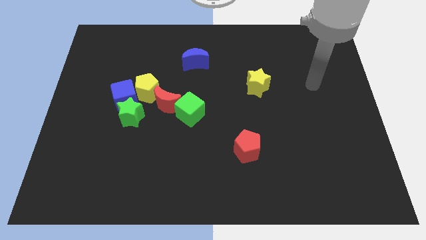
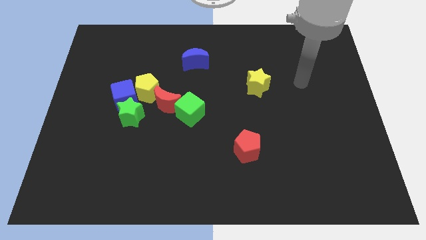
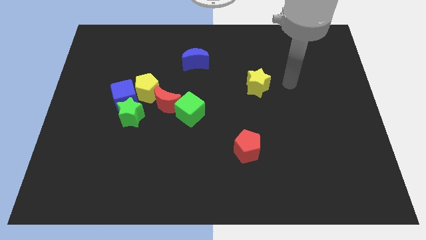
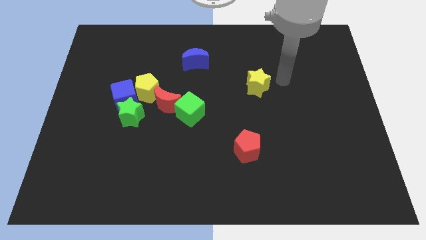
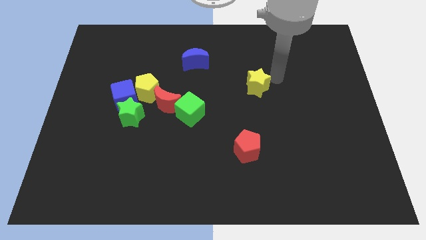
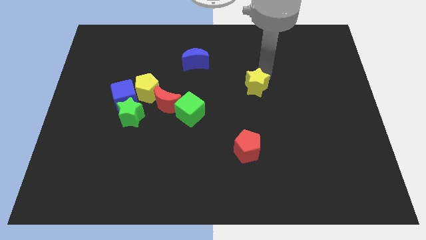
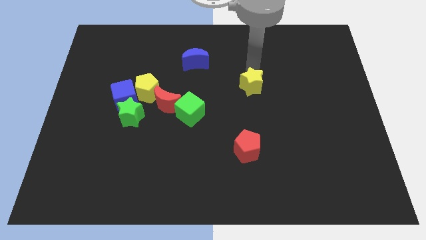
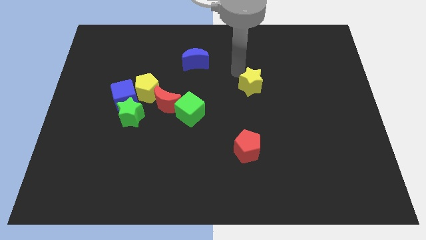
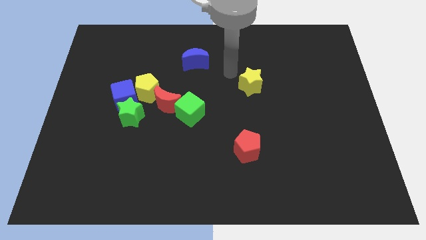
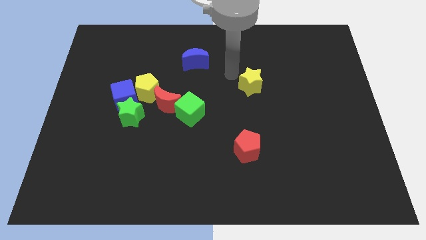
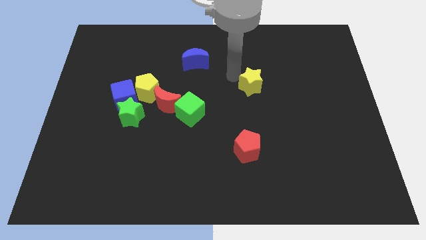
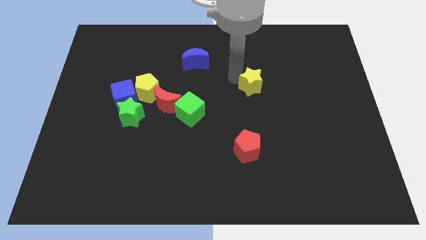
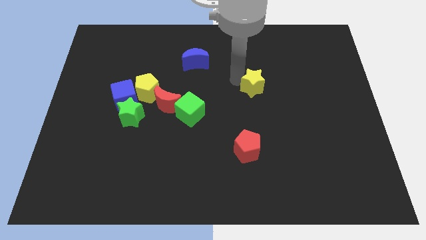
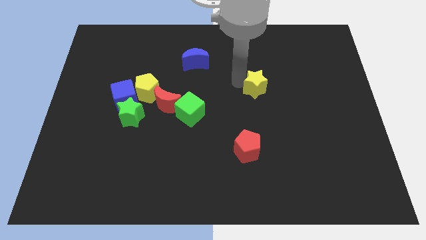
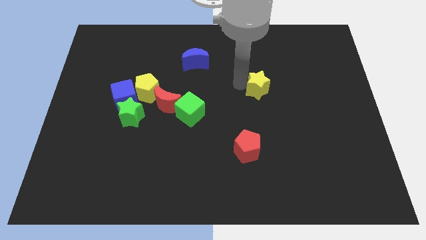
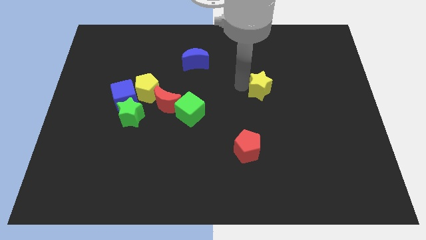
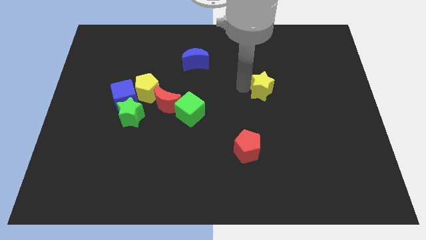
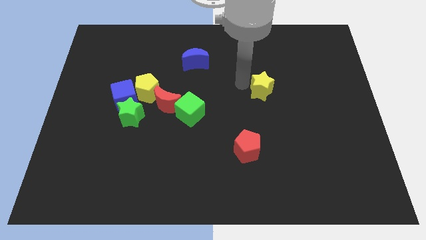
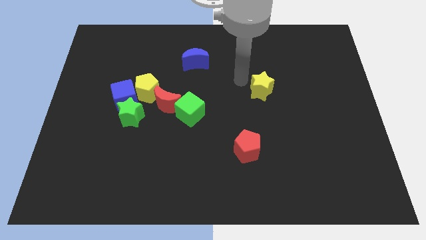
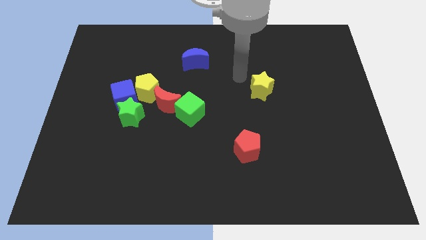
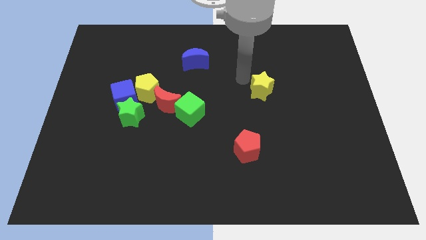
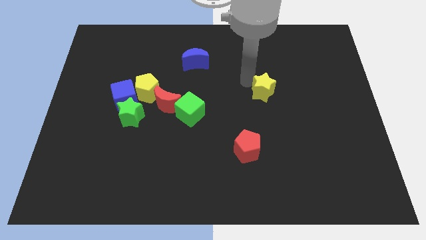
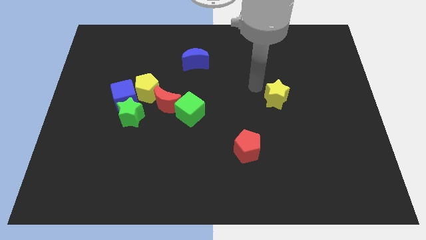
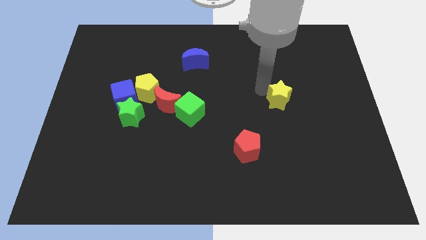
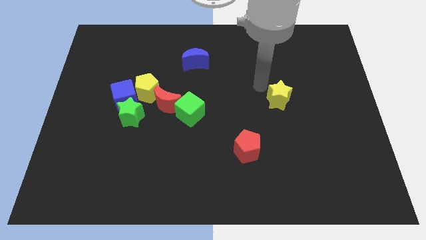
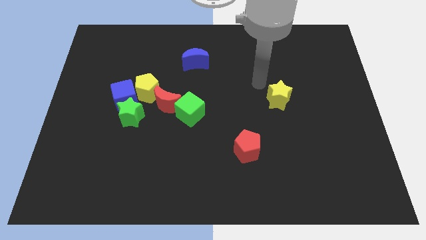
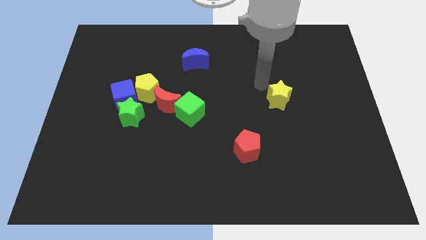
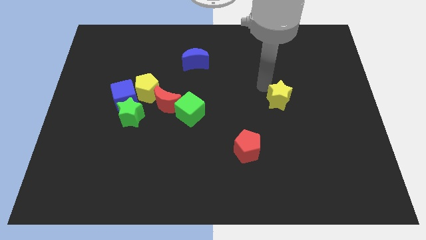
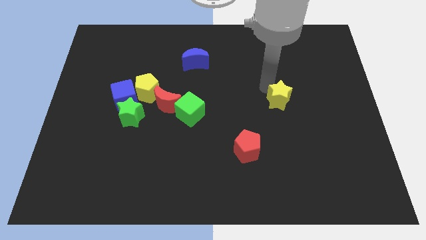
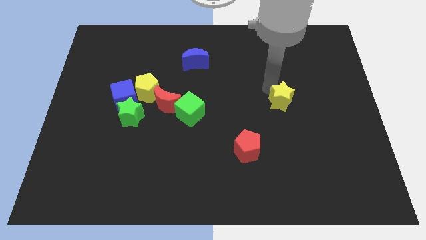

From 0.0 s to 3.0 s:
slightly push the yellow star diagonally down and to the right

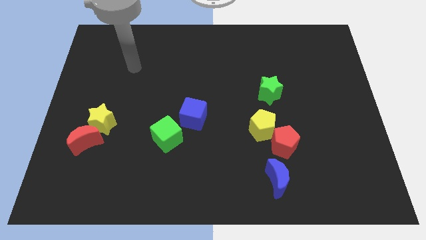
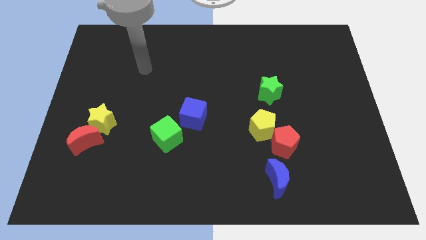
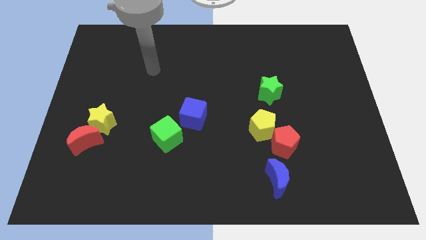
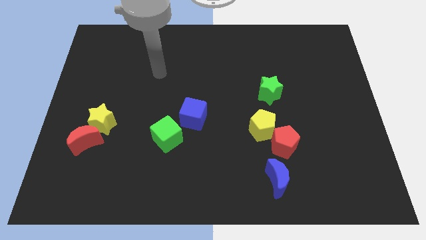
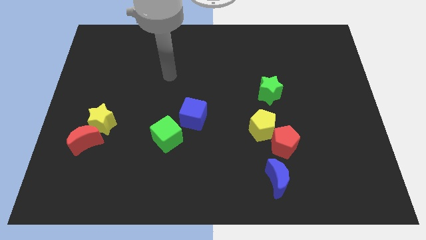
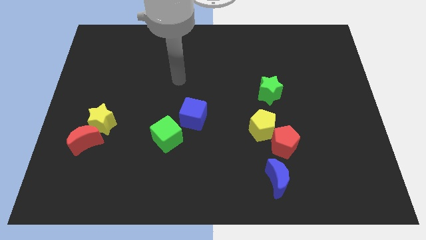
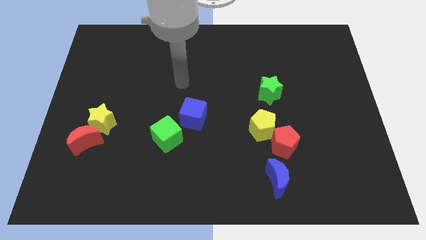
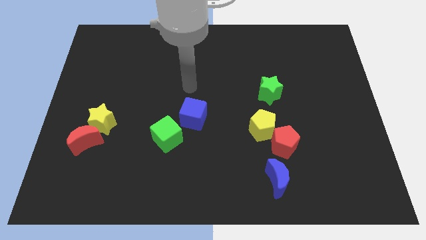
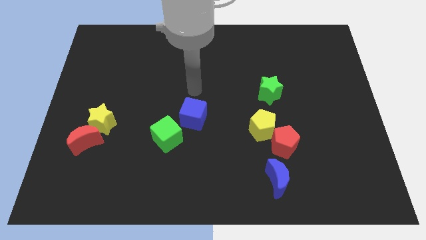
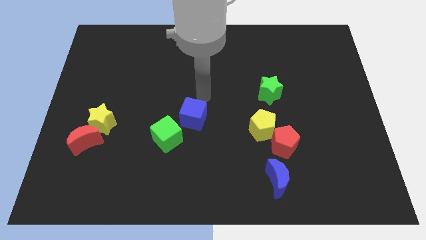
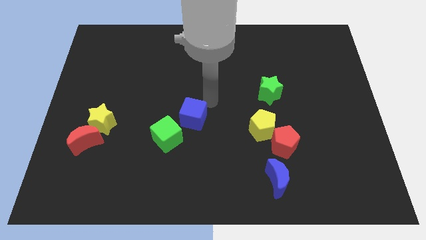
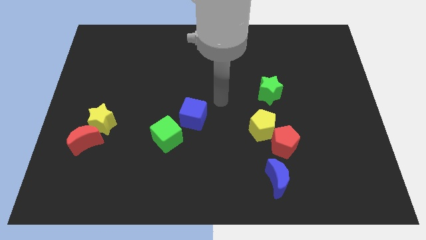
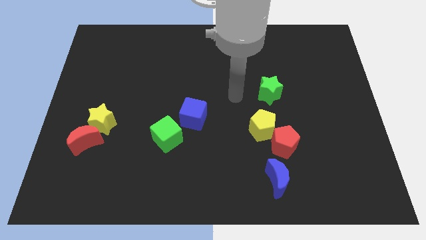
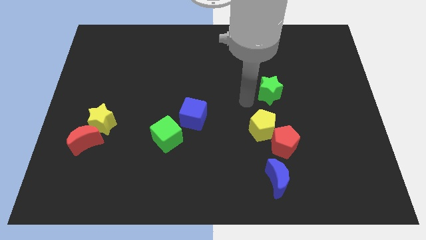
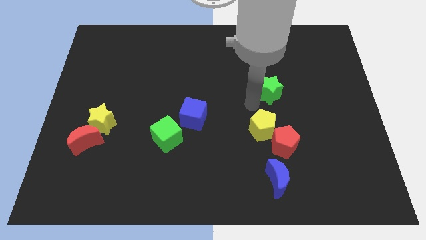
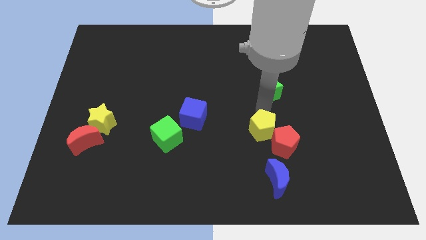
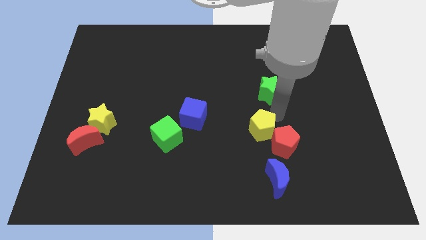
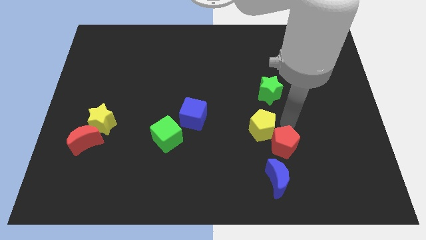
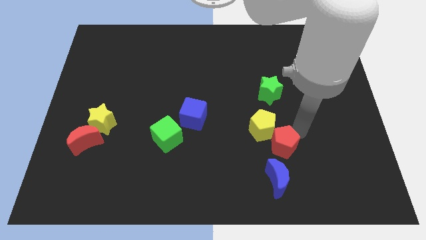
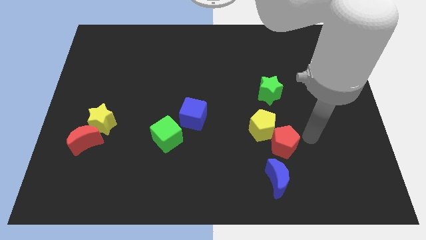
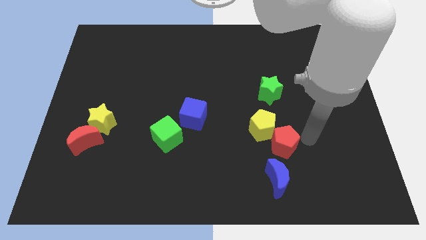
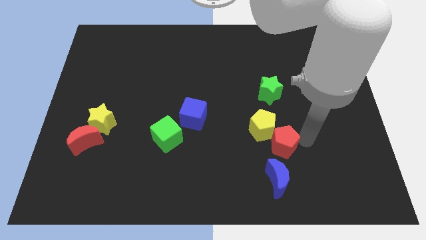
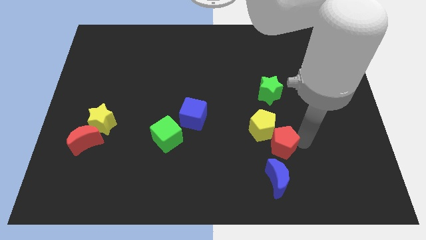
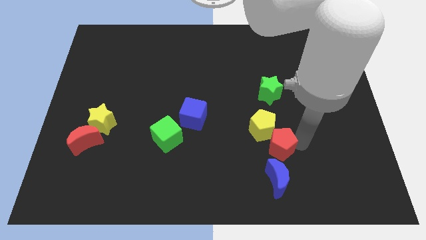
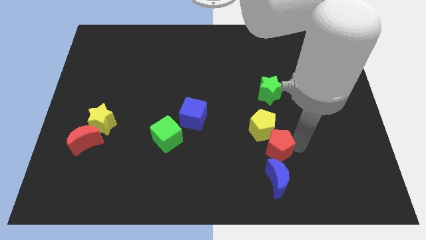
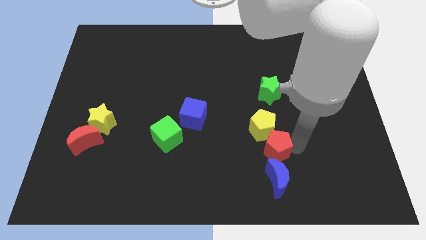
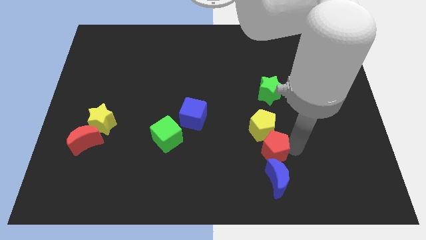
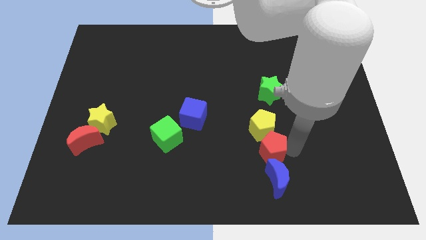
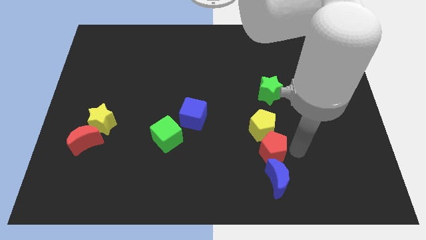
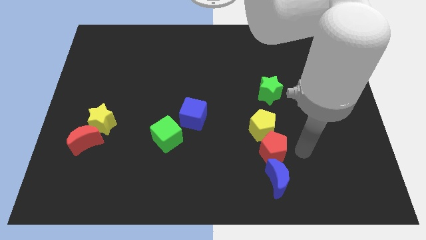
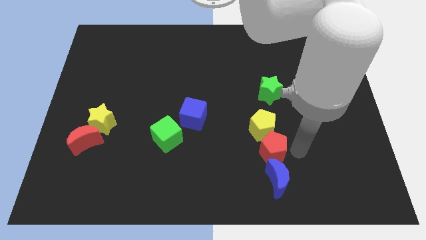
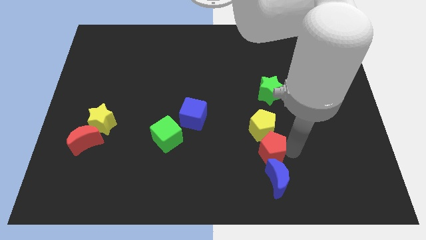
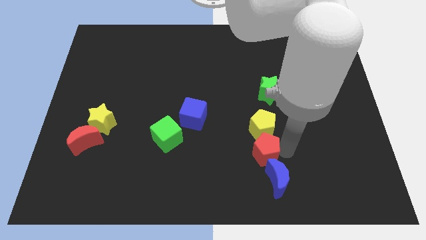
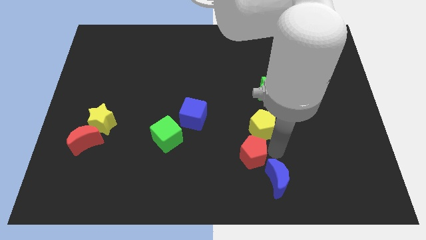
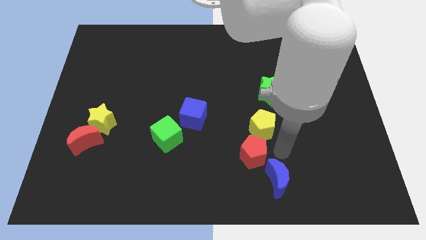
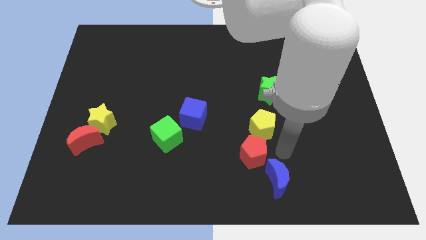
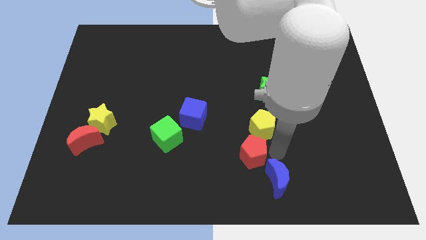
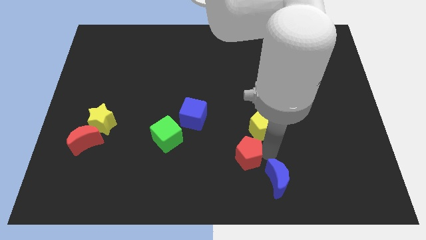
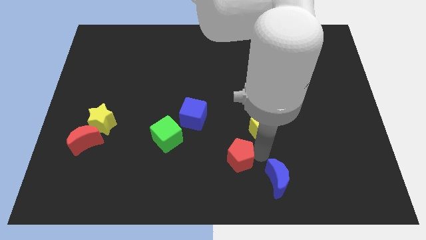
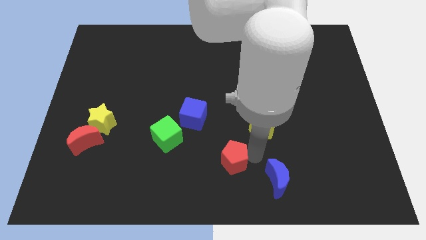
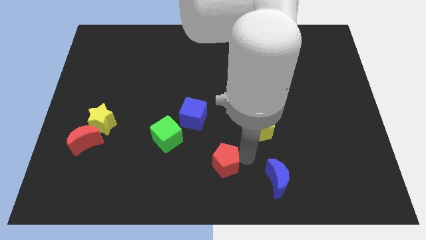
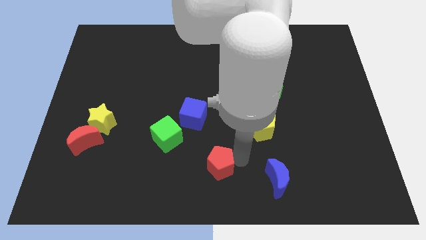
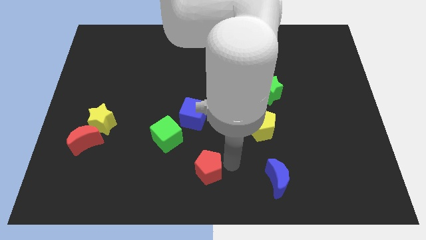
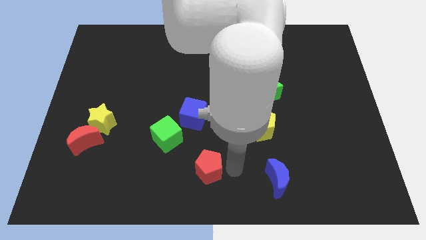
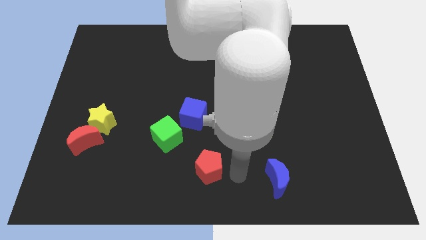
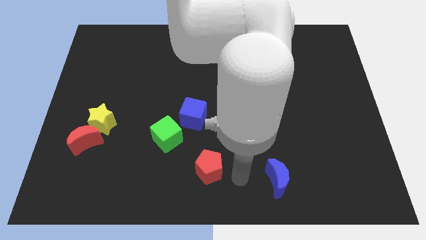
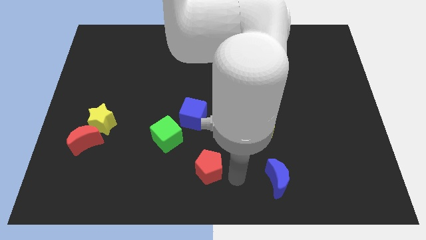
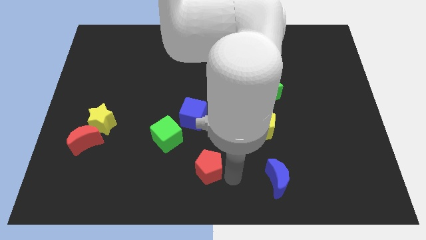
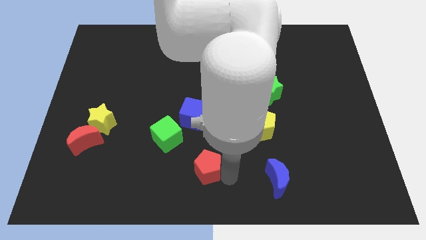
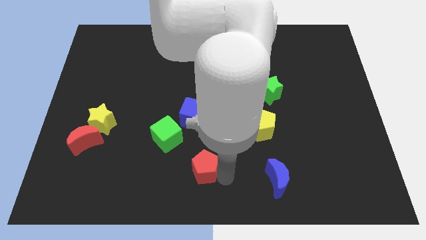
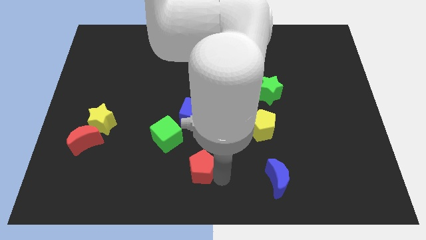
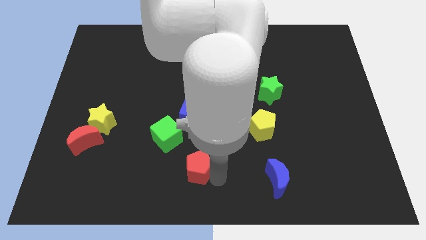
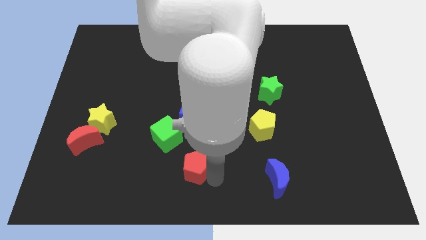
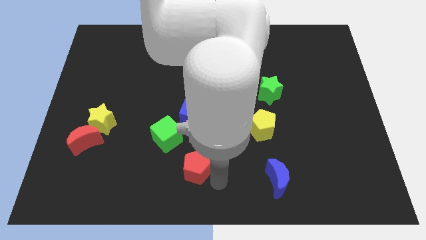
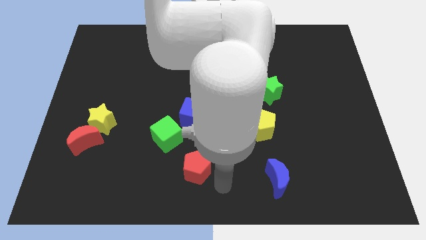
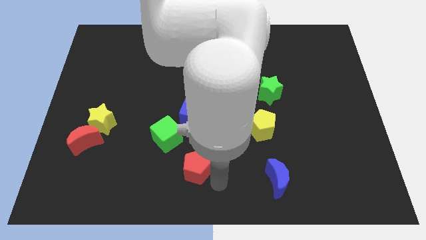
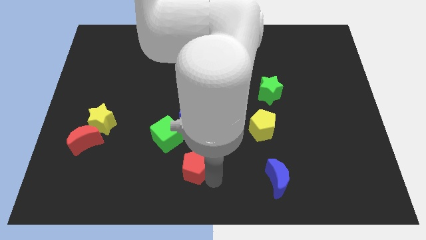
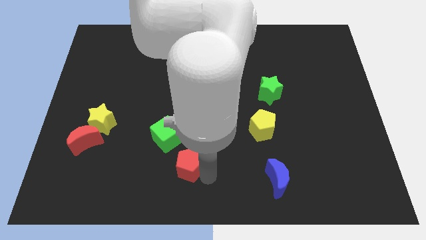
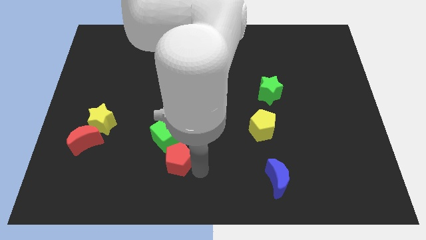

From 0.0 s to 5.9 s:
push the red pentagon to the left
